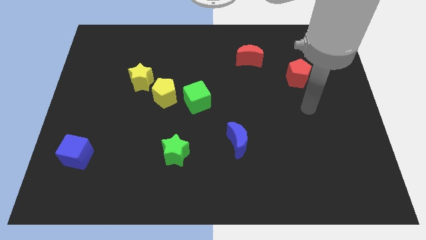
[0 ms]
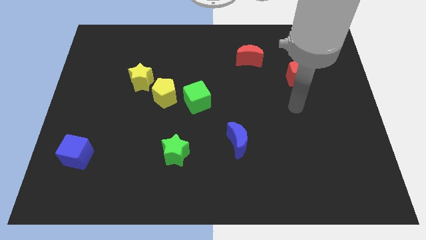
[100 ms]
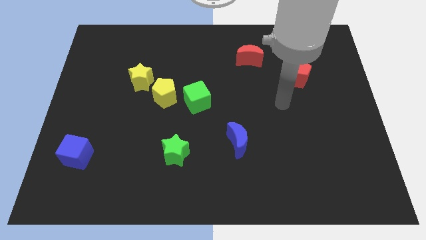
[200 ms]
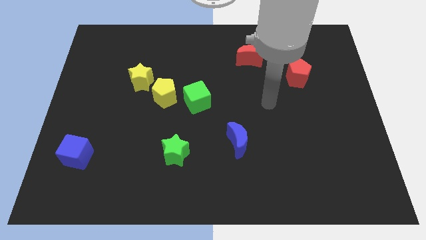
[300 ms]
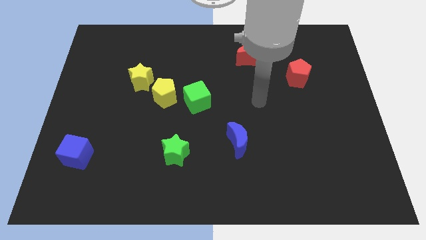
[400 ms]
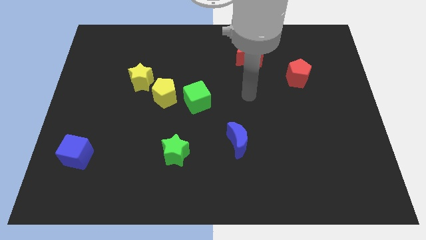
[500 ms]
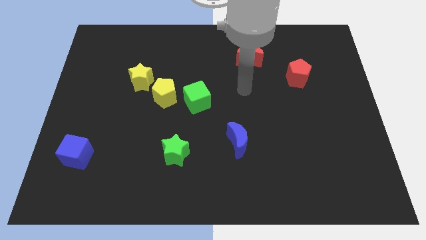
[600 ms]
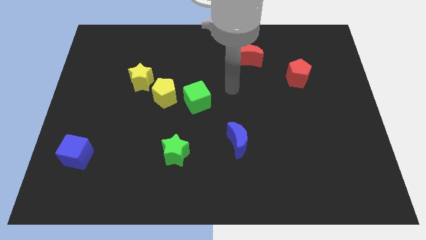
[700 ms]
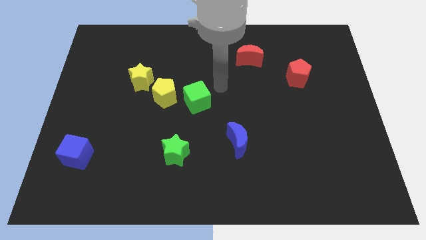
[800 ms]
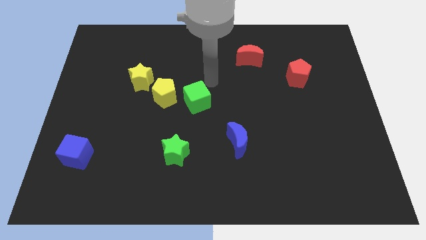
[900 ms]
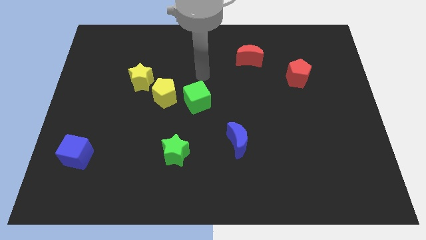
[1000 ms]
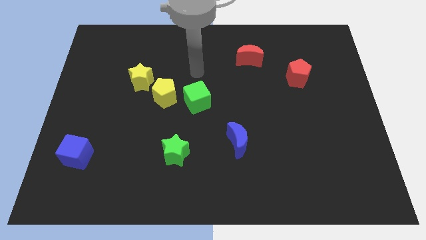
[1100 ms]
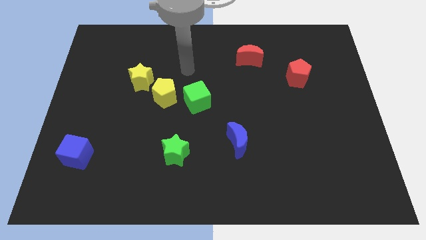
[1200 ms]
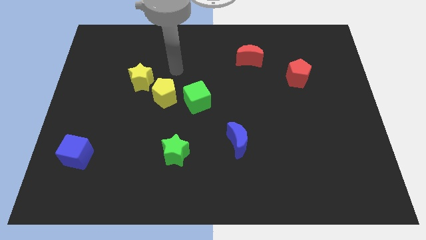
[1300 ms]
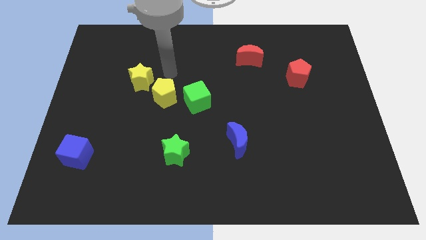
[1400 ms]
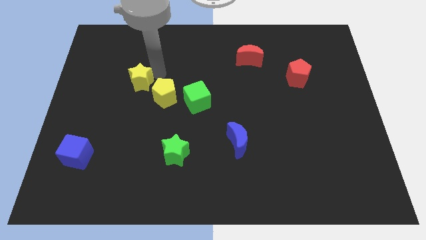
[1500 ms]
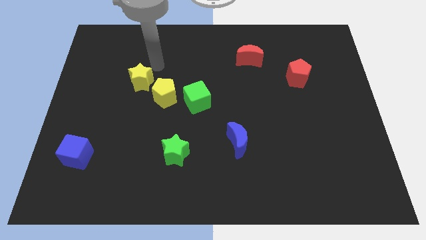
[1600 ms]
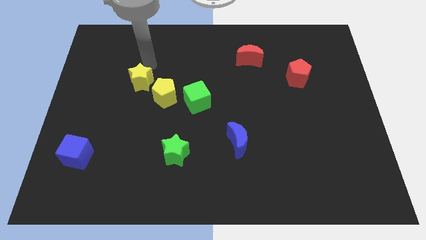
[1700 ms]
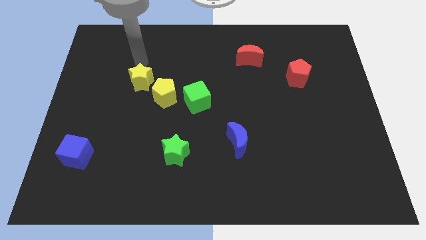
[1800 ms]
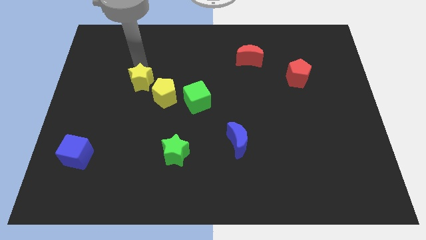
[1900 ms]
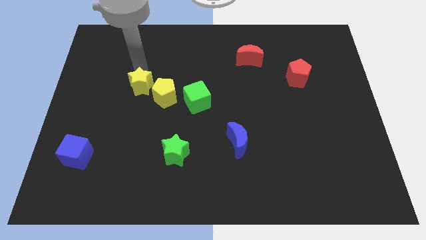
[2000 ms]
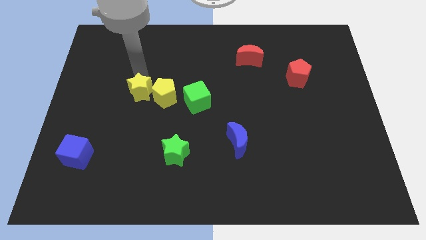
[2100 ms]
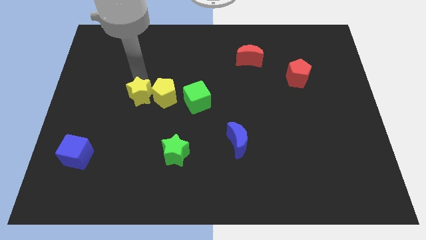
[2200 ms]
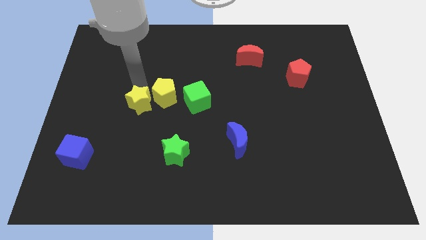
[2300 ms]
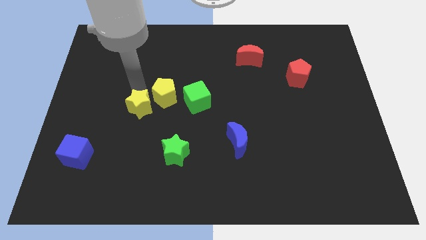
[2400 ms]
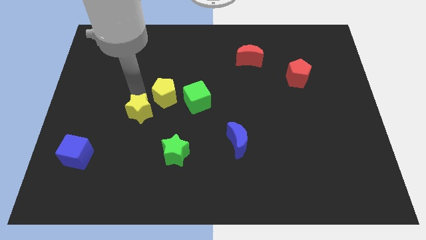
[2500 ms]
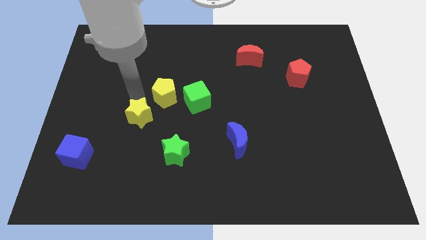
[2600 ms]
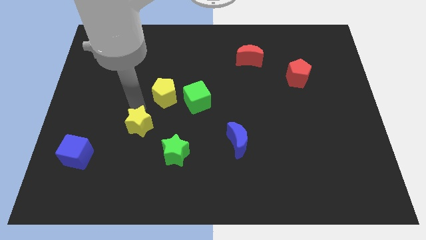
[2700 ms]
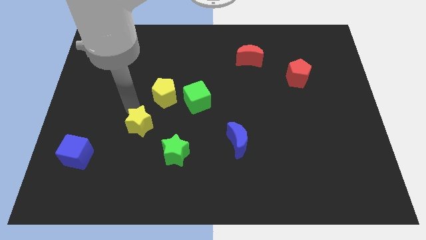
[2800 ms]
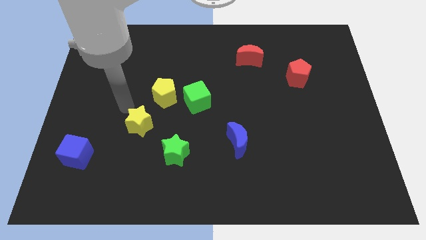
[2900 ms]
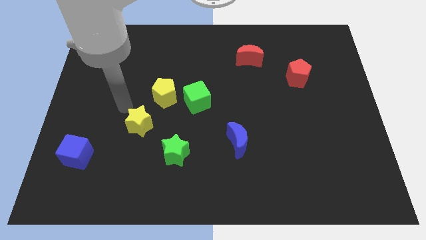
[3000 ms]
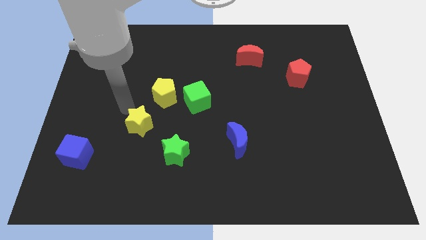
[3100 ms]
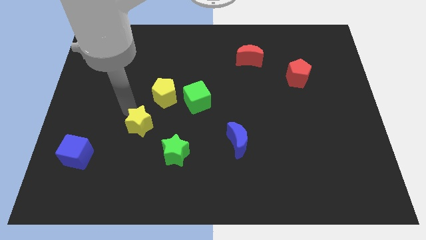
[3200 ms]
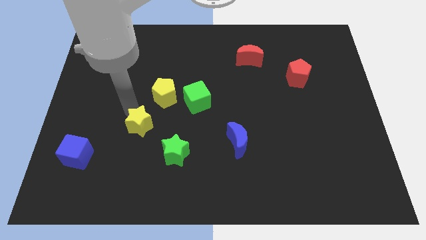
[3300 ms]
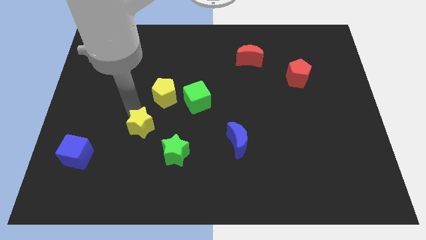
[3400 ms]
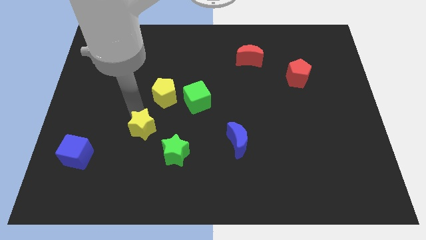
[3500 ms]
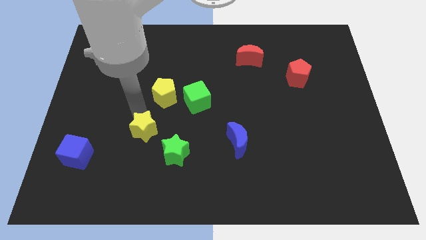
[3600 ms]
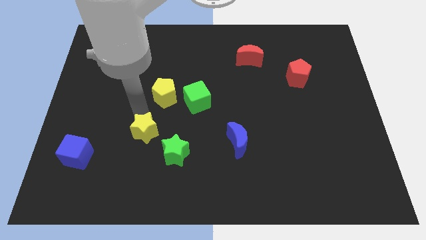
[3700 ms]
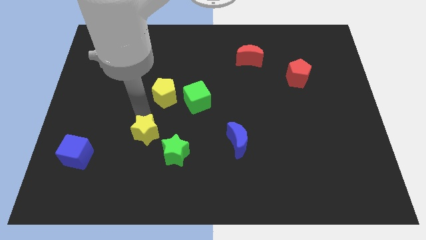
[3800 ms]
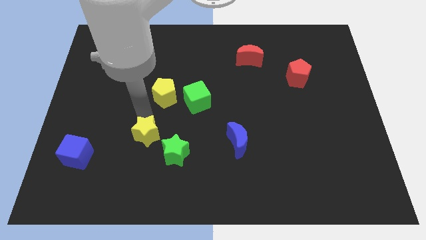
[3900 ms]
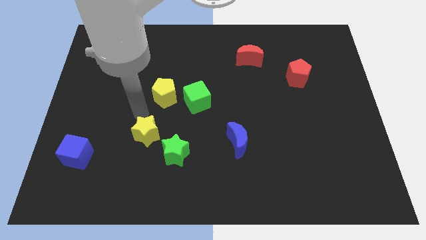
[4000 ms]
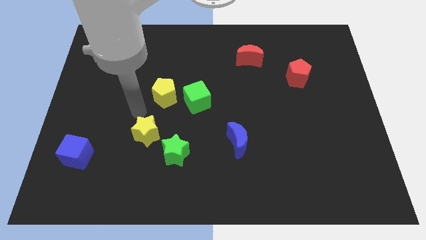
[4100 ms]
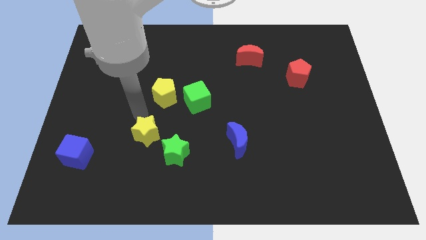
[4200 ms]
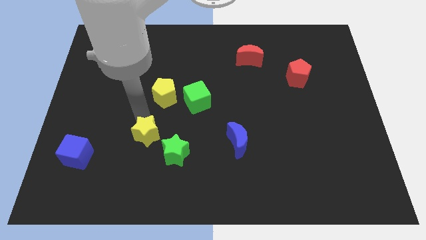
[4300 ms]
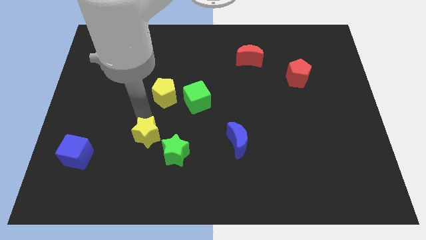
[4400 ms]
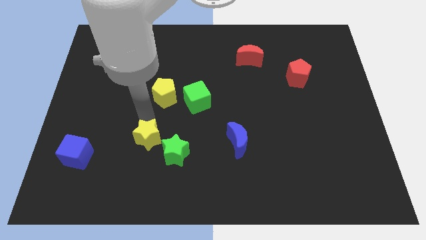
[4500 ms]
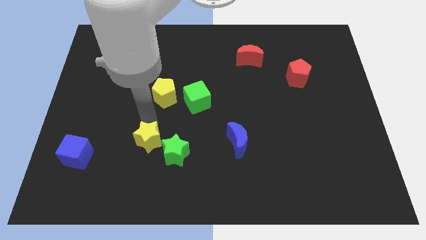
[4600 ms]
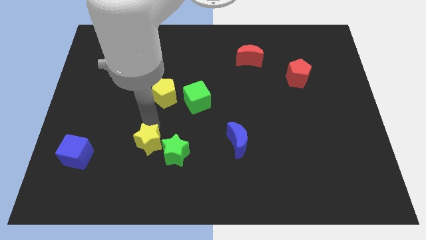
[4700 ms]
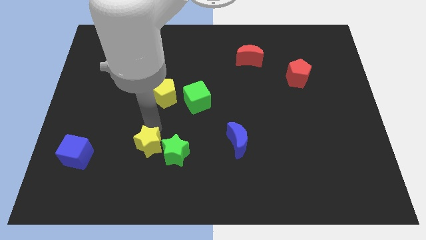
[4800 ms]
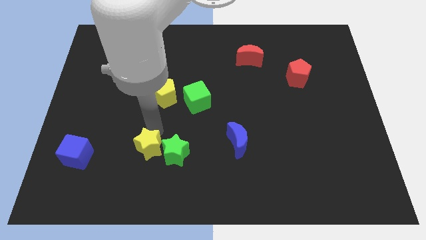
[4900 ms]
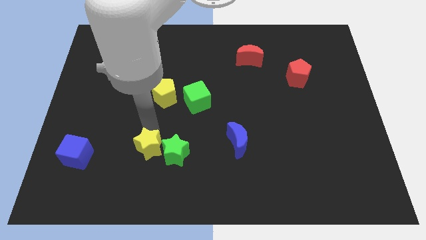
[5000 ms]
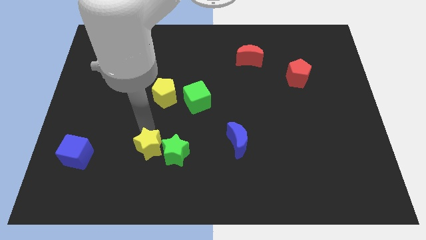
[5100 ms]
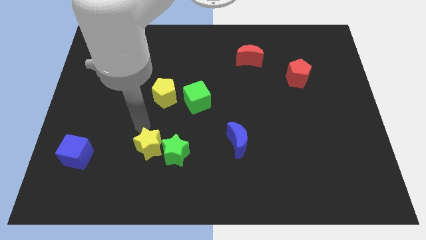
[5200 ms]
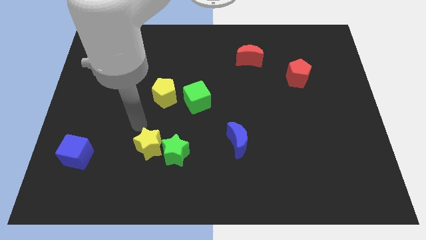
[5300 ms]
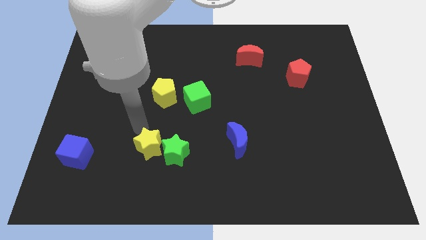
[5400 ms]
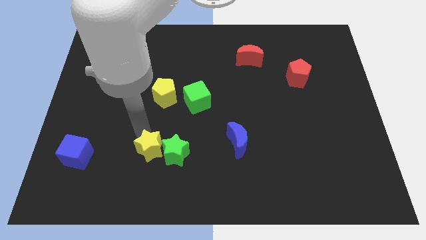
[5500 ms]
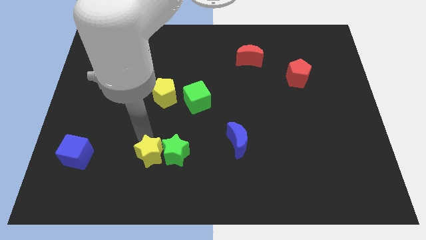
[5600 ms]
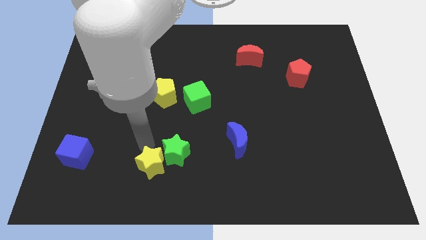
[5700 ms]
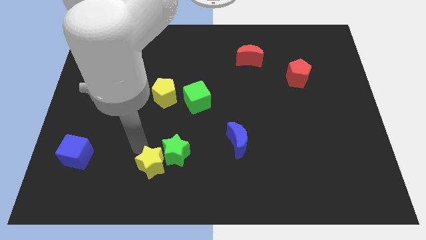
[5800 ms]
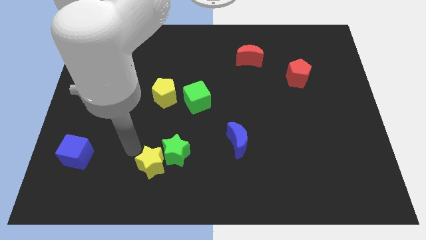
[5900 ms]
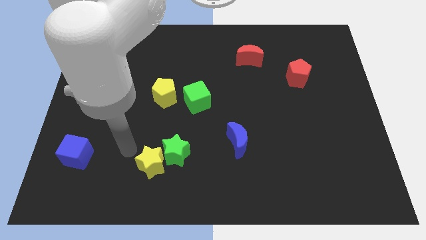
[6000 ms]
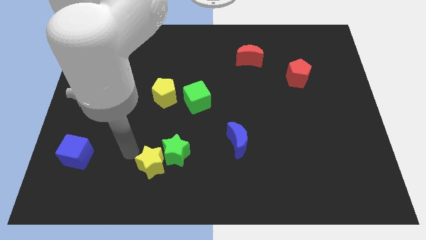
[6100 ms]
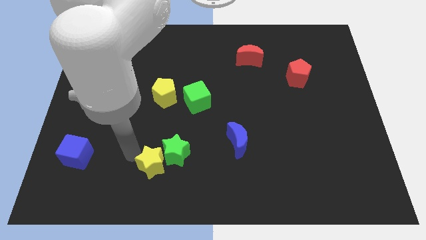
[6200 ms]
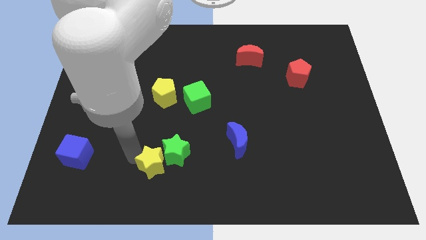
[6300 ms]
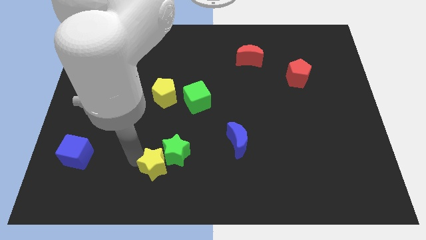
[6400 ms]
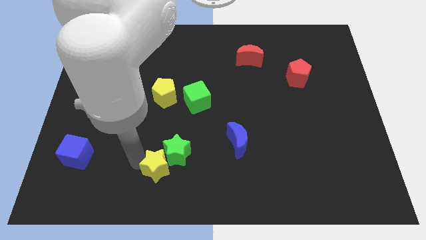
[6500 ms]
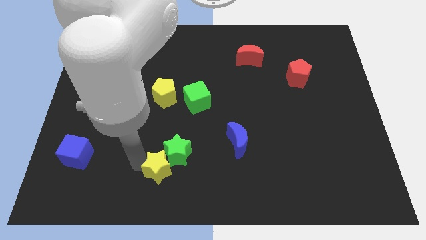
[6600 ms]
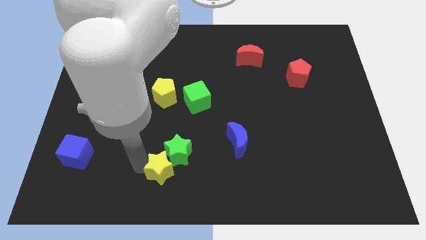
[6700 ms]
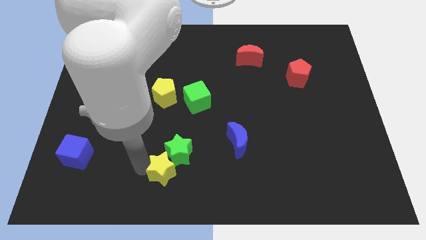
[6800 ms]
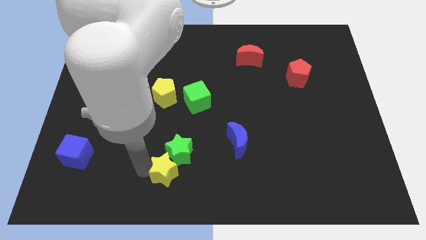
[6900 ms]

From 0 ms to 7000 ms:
move the yellow star to the bottom
